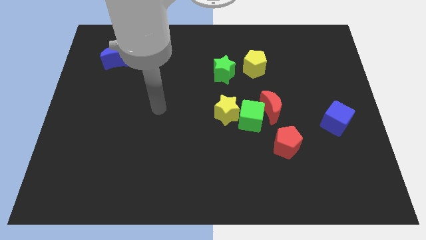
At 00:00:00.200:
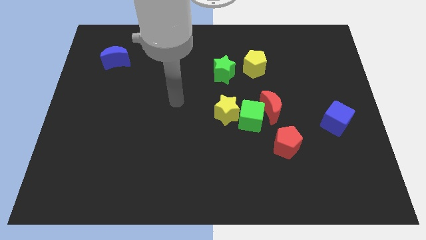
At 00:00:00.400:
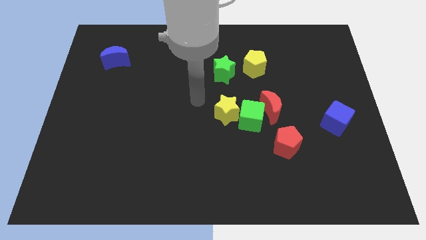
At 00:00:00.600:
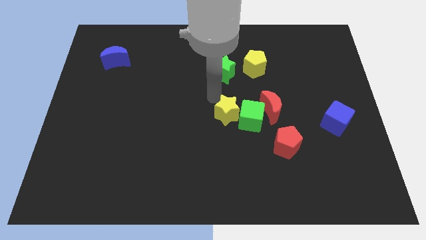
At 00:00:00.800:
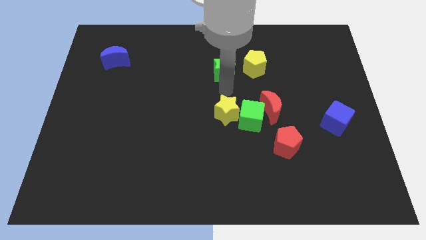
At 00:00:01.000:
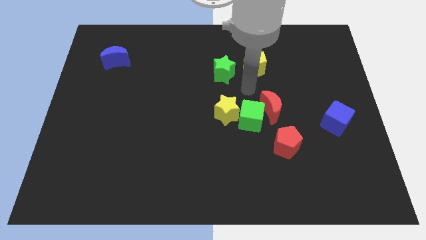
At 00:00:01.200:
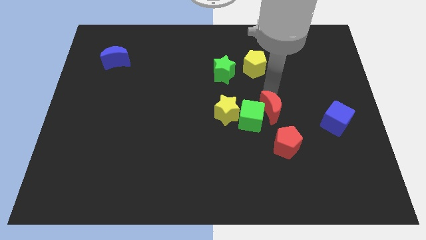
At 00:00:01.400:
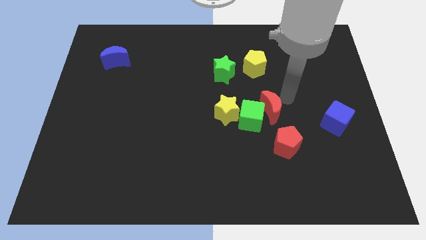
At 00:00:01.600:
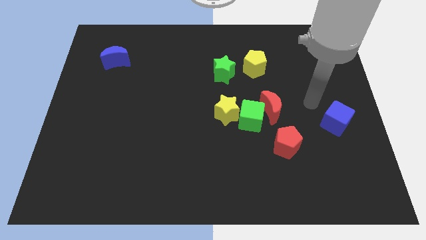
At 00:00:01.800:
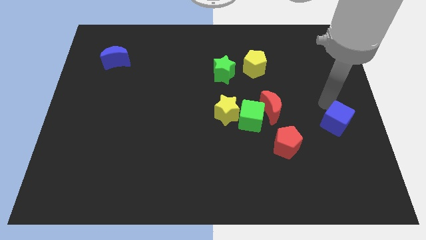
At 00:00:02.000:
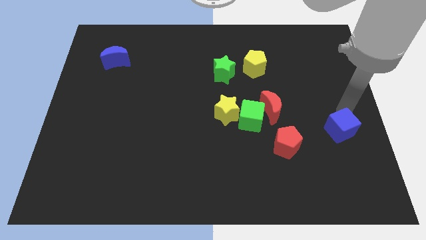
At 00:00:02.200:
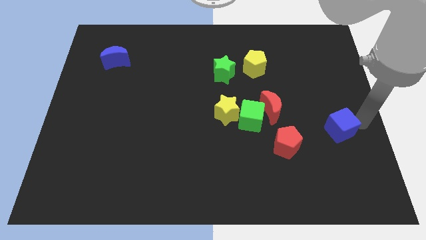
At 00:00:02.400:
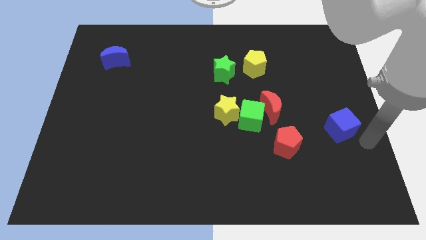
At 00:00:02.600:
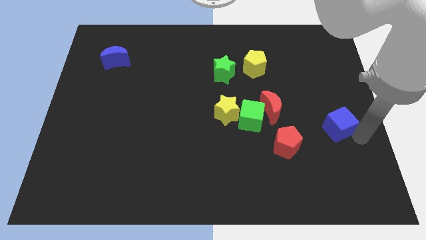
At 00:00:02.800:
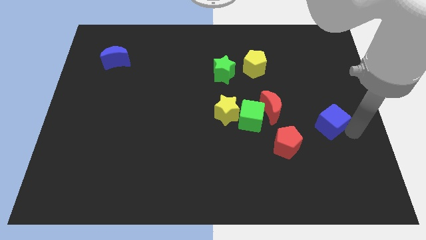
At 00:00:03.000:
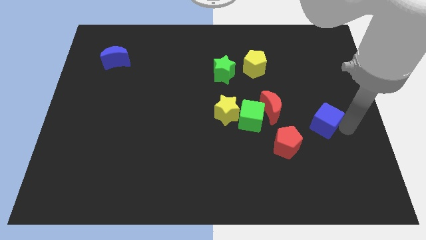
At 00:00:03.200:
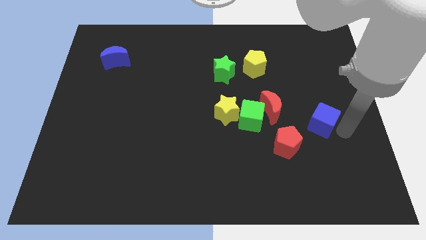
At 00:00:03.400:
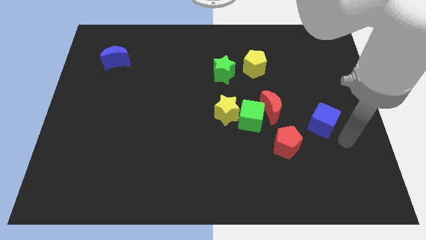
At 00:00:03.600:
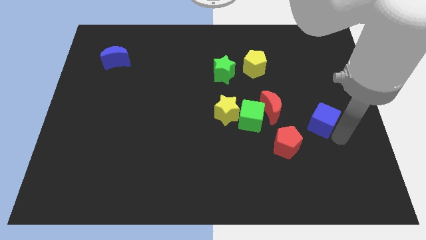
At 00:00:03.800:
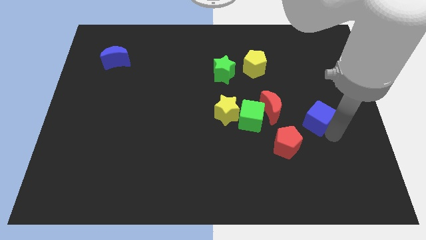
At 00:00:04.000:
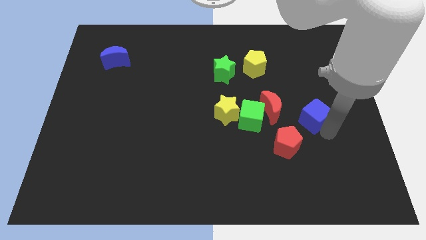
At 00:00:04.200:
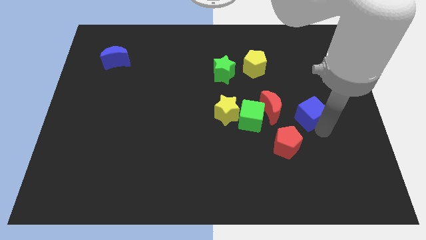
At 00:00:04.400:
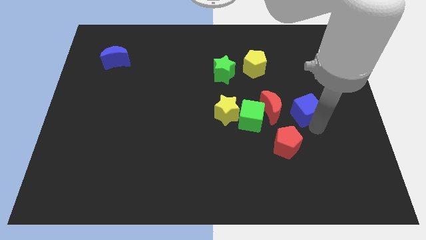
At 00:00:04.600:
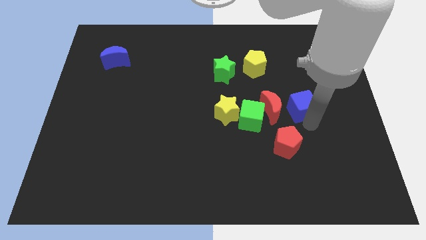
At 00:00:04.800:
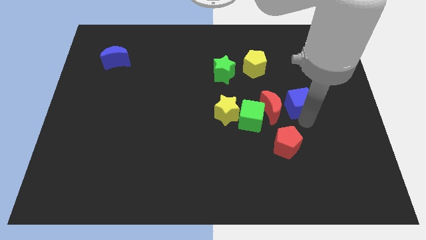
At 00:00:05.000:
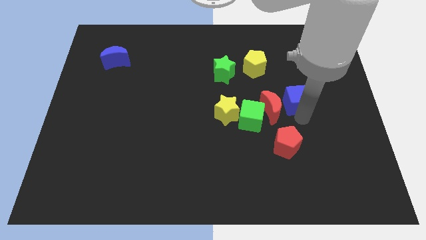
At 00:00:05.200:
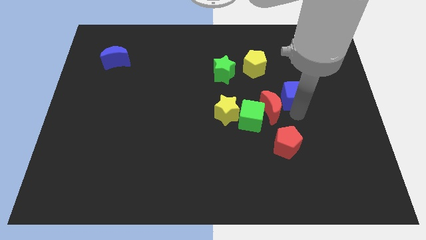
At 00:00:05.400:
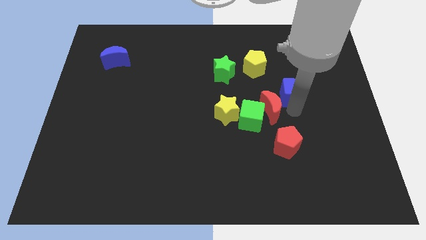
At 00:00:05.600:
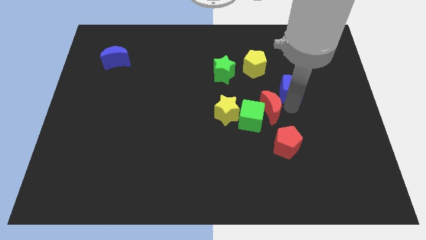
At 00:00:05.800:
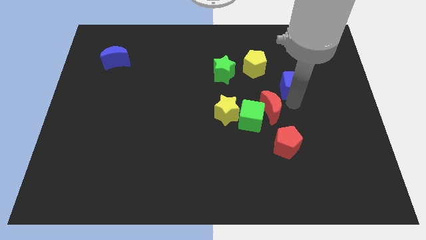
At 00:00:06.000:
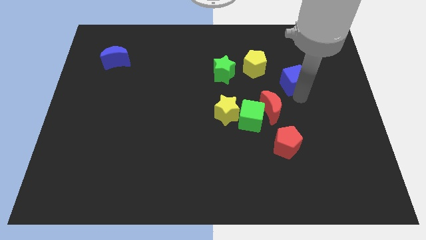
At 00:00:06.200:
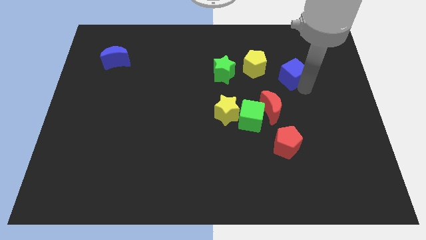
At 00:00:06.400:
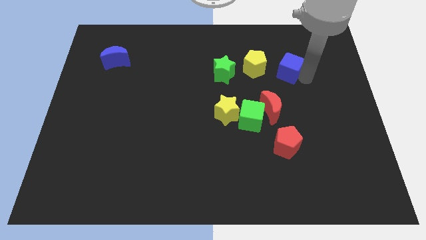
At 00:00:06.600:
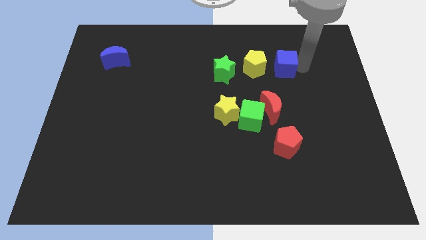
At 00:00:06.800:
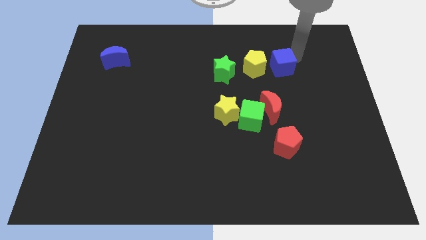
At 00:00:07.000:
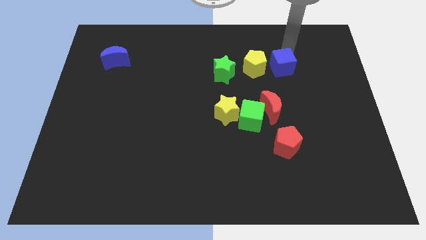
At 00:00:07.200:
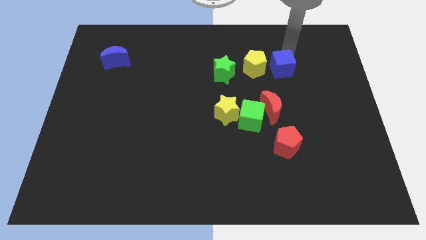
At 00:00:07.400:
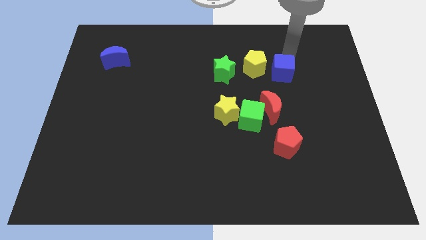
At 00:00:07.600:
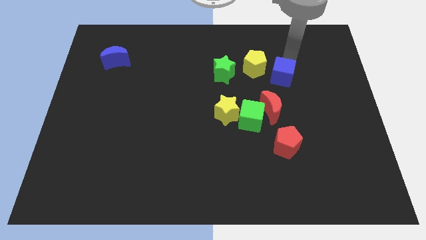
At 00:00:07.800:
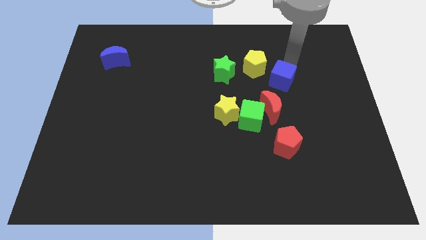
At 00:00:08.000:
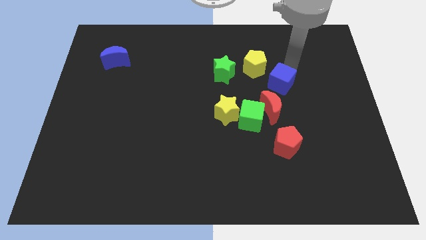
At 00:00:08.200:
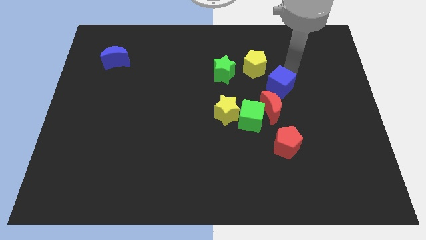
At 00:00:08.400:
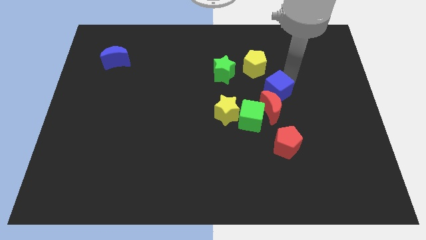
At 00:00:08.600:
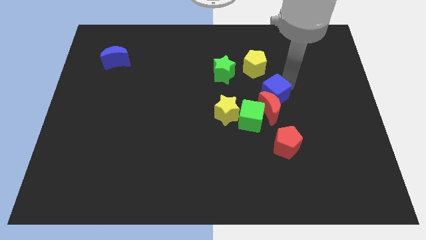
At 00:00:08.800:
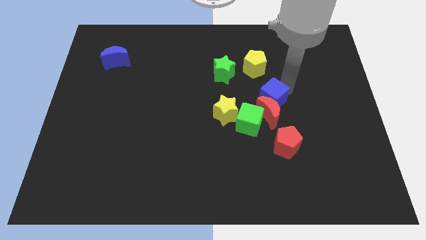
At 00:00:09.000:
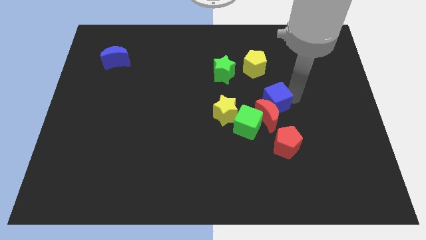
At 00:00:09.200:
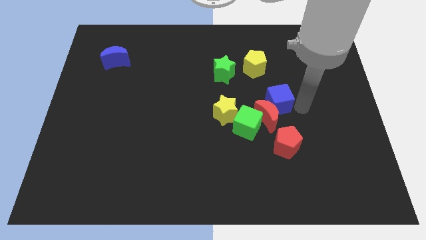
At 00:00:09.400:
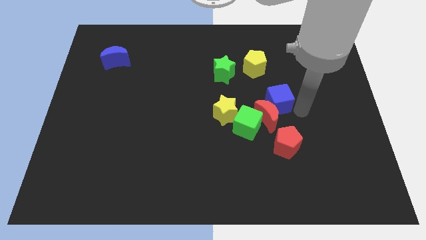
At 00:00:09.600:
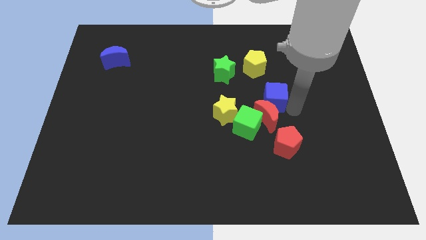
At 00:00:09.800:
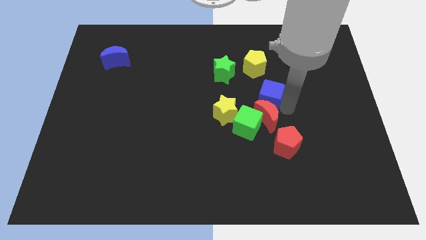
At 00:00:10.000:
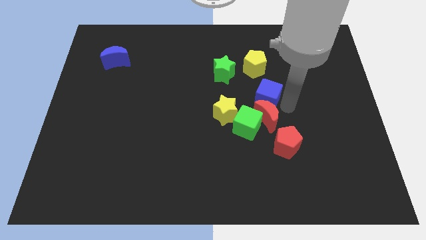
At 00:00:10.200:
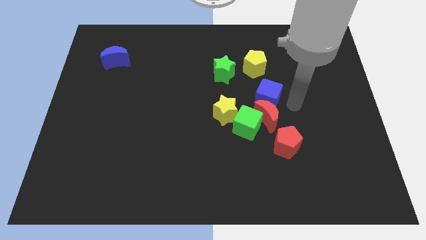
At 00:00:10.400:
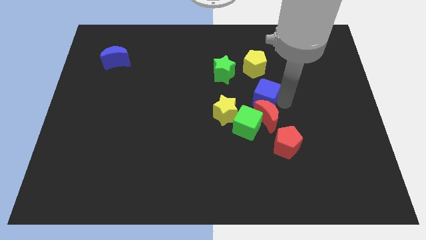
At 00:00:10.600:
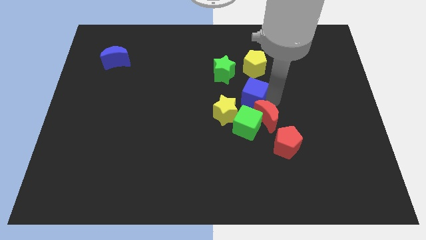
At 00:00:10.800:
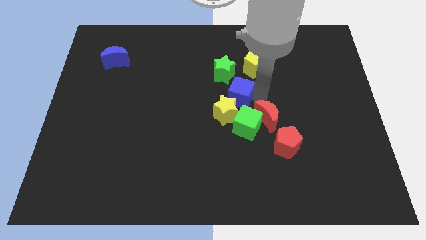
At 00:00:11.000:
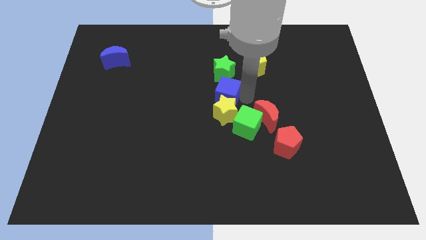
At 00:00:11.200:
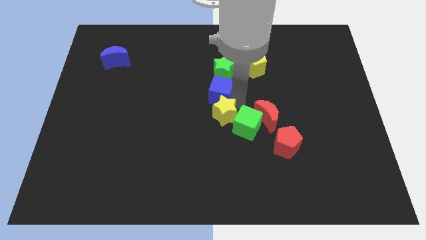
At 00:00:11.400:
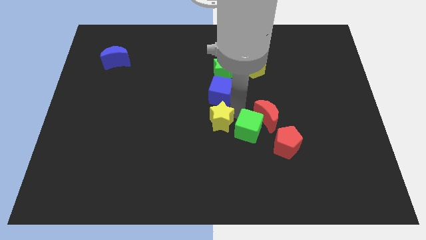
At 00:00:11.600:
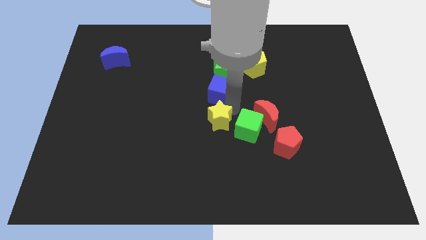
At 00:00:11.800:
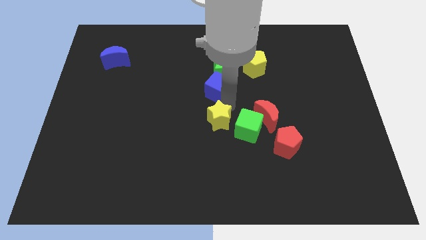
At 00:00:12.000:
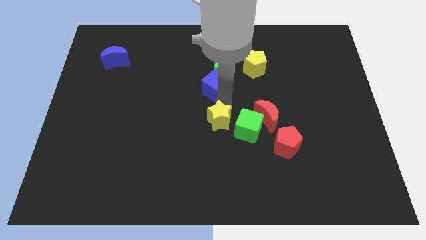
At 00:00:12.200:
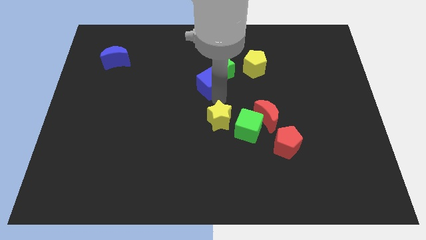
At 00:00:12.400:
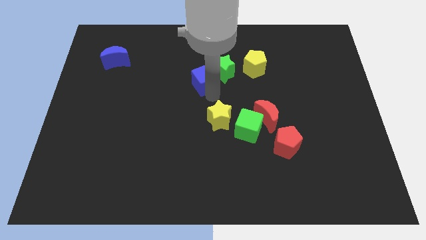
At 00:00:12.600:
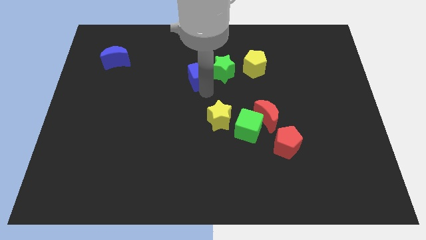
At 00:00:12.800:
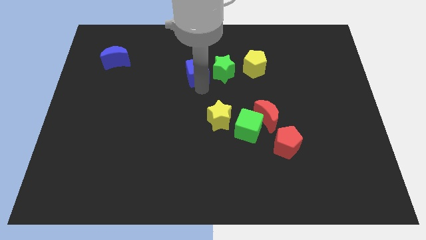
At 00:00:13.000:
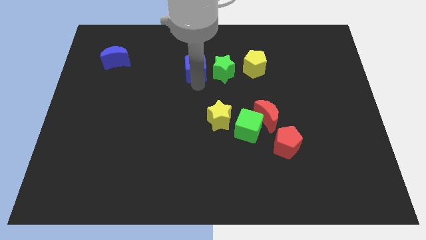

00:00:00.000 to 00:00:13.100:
slide the blue cube to the top left side of the green star
